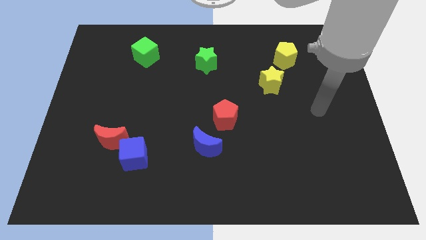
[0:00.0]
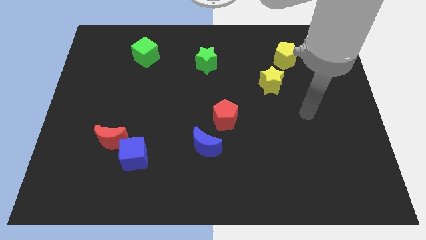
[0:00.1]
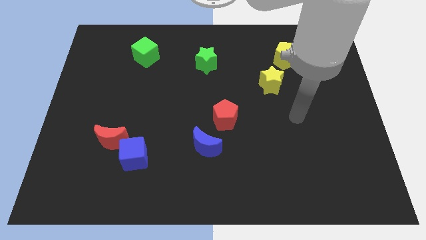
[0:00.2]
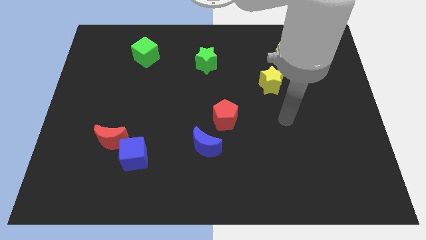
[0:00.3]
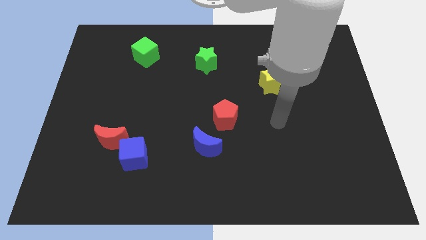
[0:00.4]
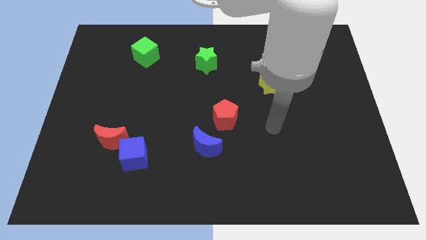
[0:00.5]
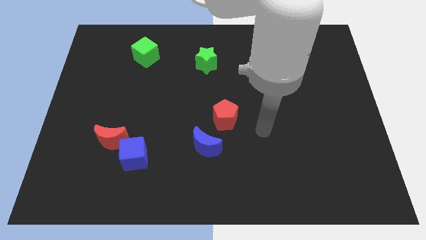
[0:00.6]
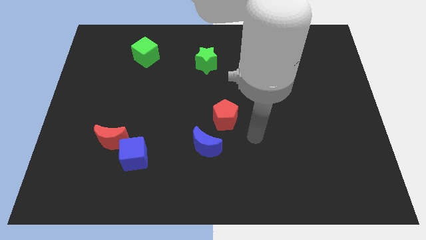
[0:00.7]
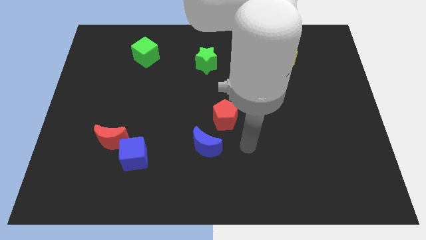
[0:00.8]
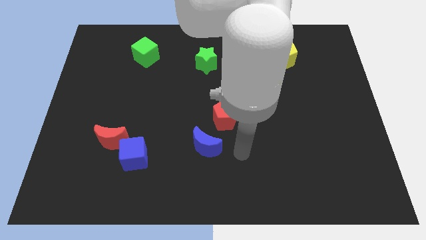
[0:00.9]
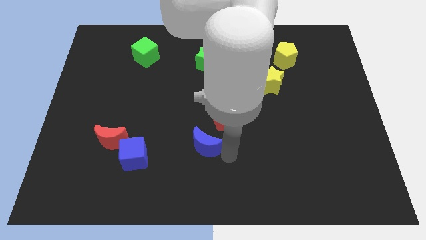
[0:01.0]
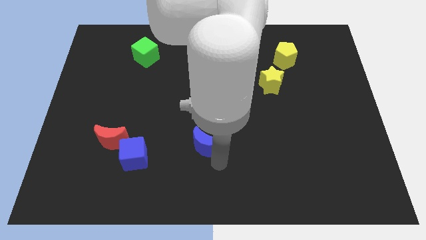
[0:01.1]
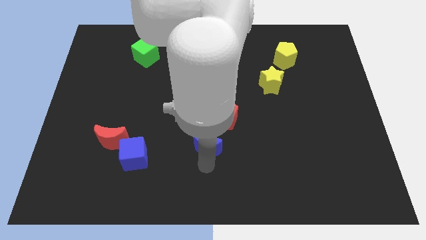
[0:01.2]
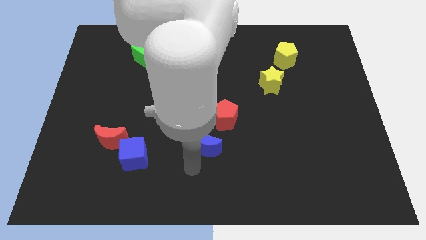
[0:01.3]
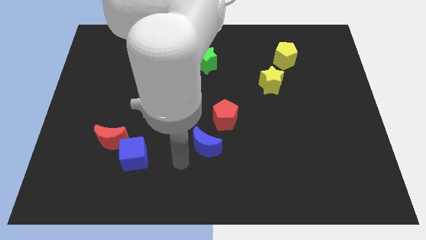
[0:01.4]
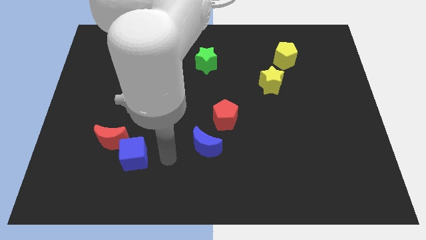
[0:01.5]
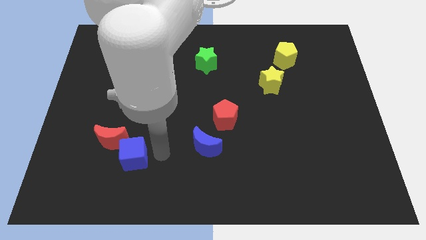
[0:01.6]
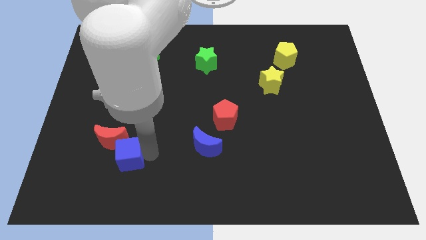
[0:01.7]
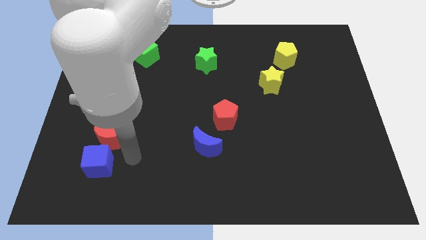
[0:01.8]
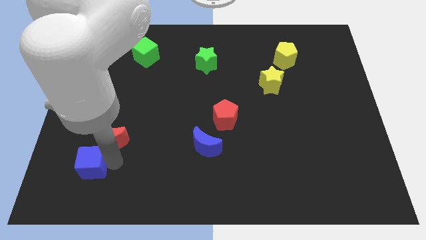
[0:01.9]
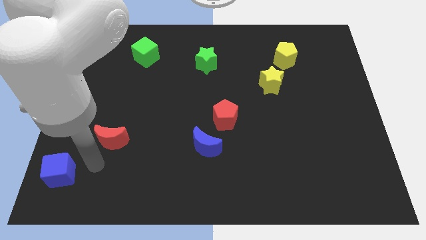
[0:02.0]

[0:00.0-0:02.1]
move the red moon away from the blue cube

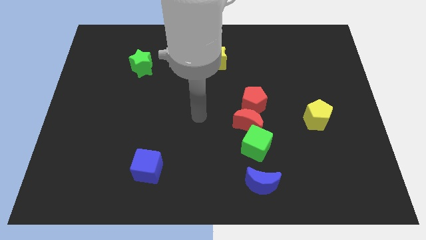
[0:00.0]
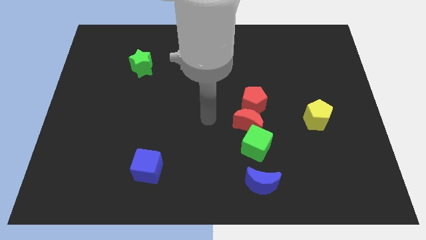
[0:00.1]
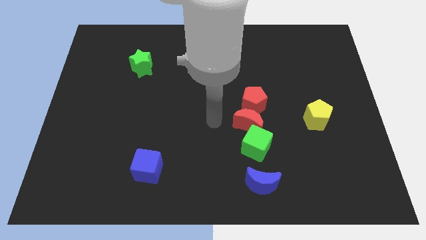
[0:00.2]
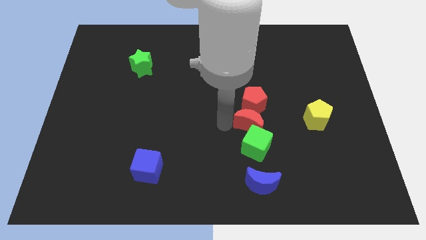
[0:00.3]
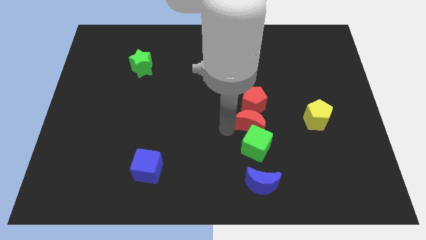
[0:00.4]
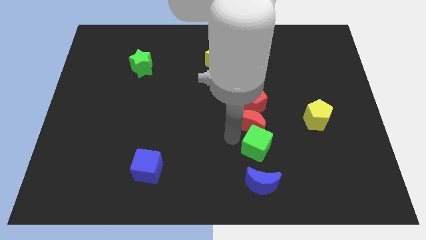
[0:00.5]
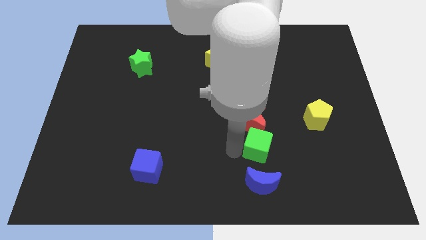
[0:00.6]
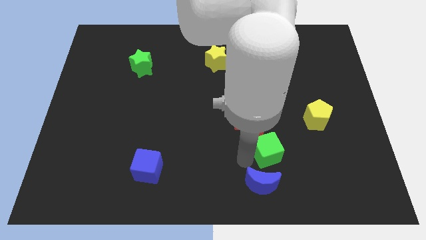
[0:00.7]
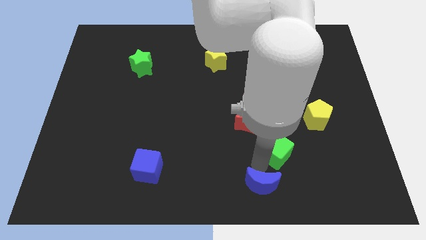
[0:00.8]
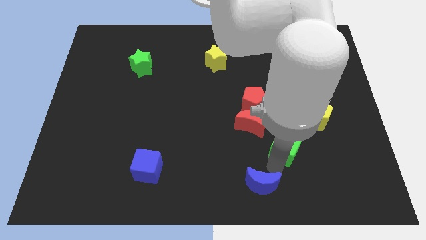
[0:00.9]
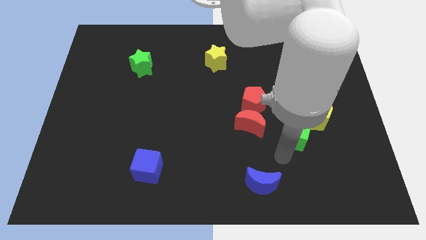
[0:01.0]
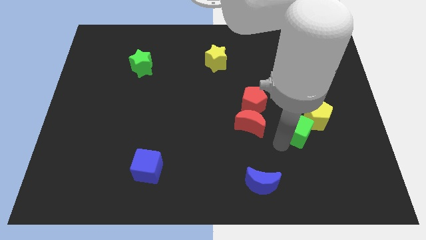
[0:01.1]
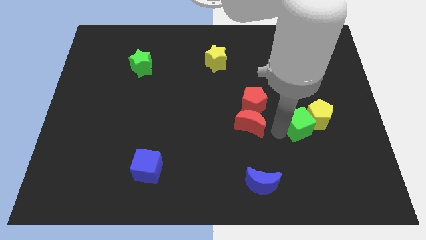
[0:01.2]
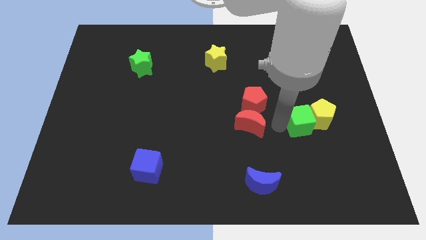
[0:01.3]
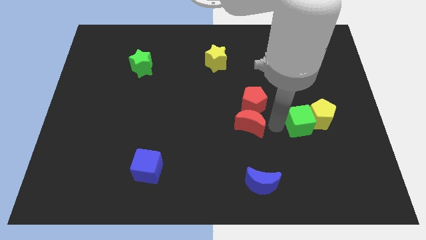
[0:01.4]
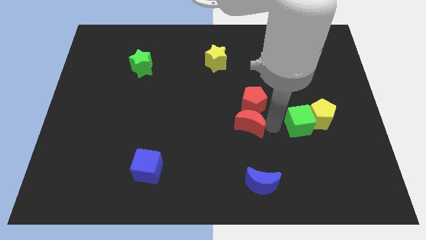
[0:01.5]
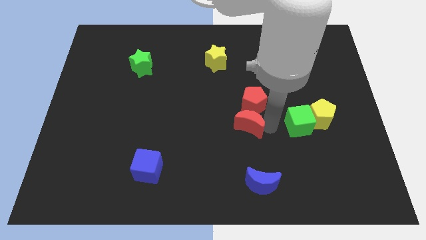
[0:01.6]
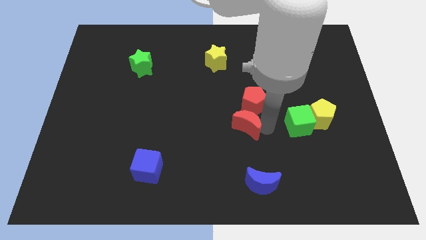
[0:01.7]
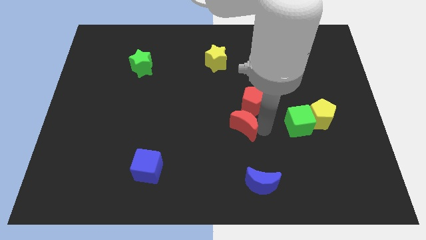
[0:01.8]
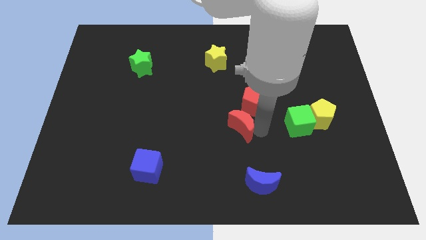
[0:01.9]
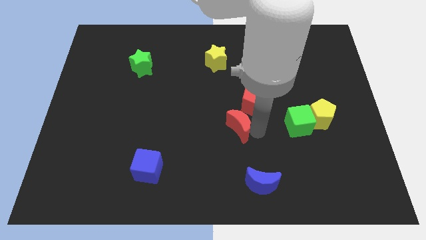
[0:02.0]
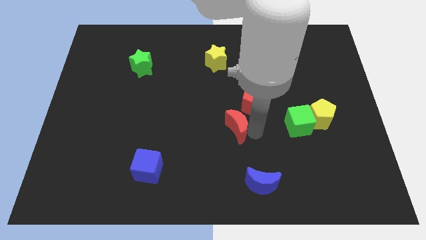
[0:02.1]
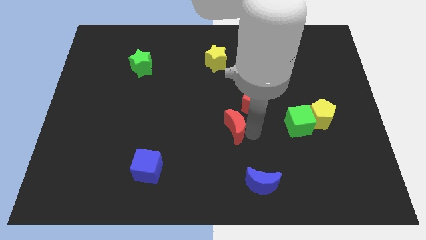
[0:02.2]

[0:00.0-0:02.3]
separate the red moon from the green cube and red pentagon

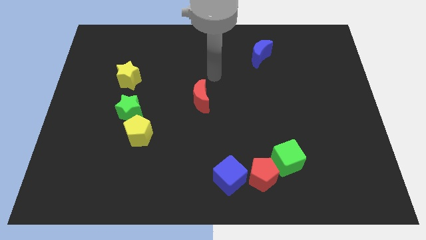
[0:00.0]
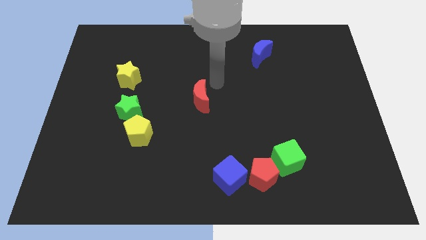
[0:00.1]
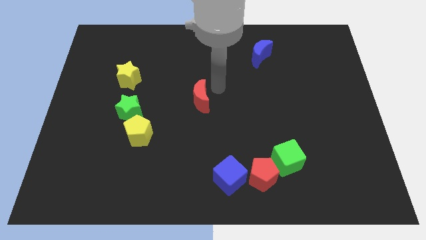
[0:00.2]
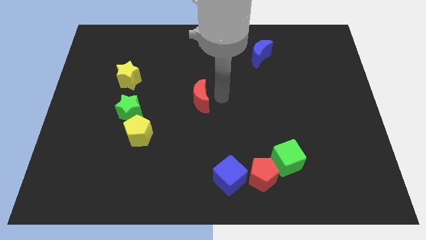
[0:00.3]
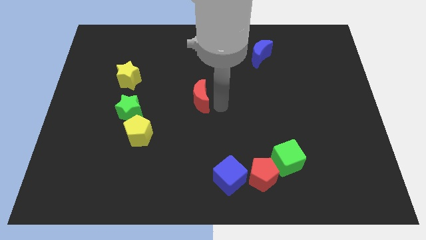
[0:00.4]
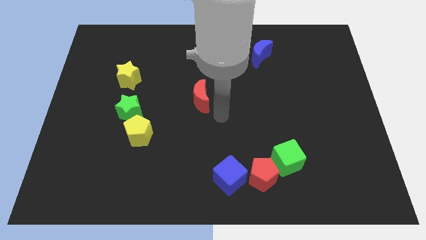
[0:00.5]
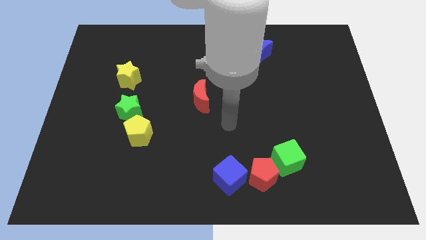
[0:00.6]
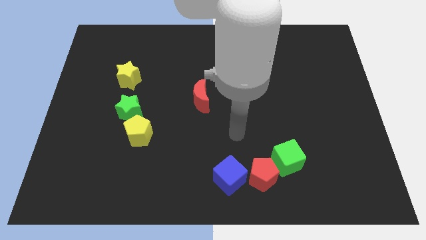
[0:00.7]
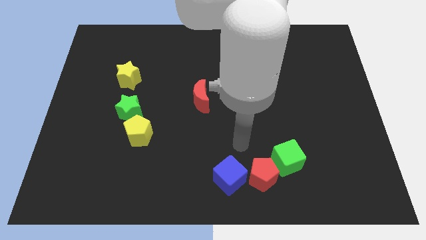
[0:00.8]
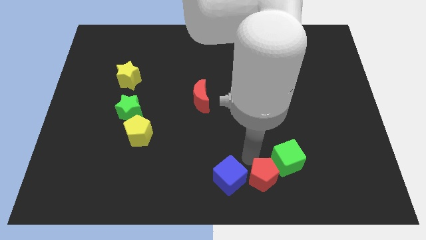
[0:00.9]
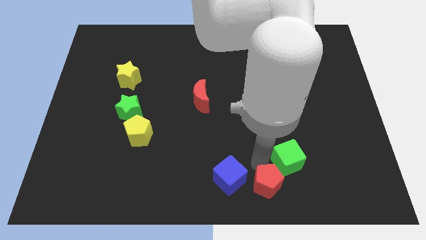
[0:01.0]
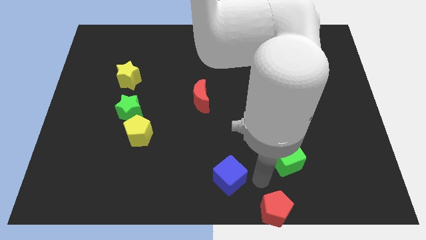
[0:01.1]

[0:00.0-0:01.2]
move the blue cube away from the red pentagon

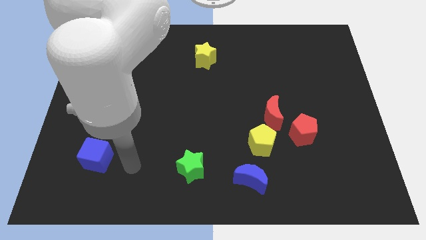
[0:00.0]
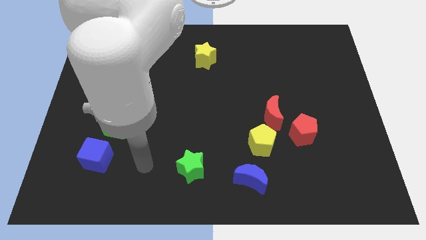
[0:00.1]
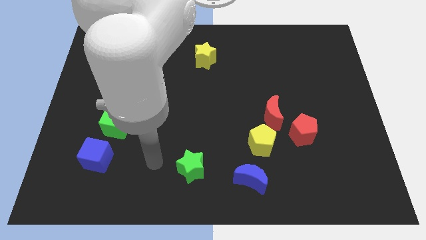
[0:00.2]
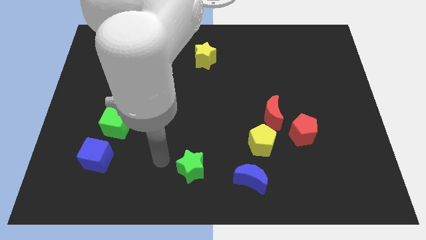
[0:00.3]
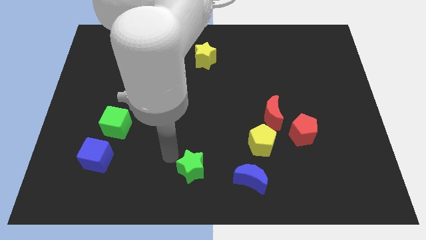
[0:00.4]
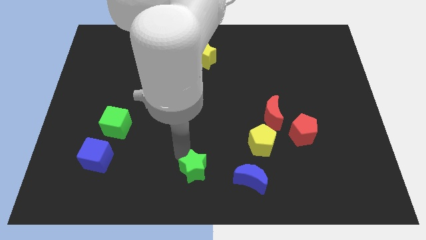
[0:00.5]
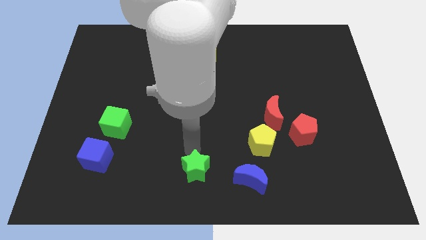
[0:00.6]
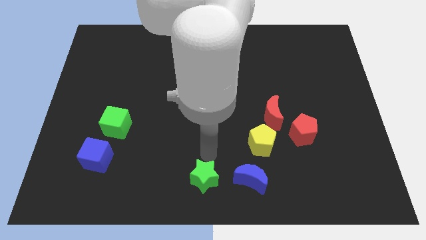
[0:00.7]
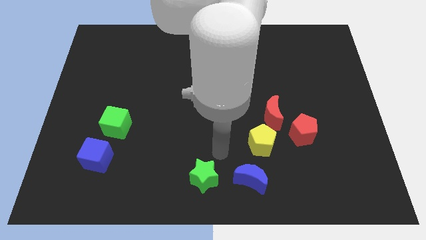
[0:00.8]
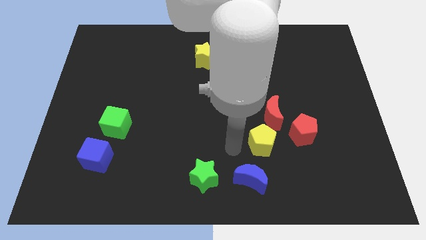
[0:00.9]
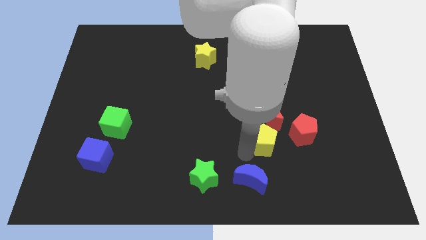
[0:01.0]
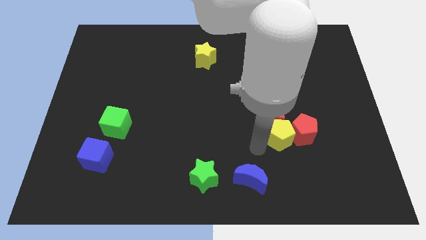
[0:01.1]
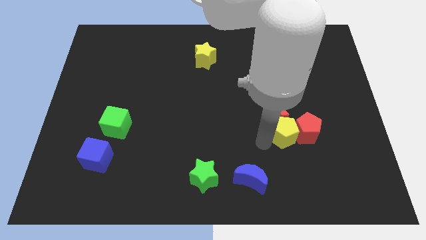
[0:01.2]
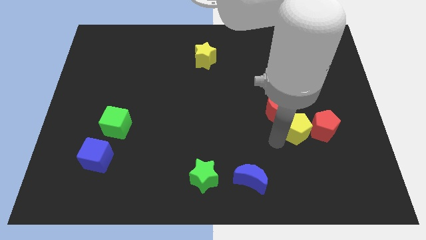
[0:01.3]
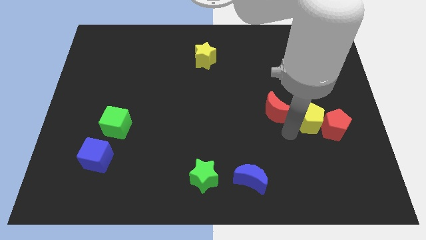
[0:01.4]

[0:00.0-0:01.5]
separate the red moon from the yellow pentagon and red pentagon

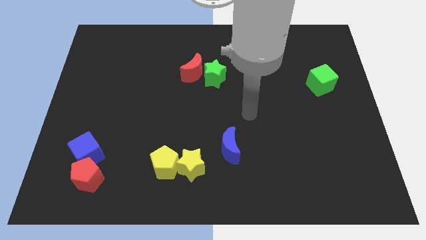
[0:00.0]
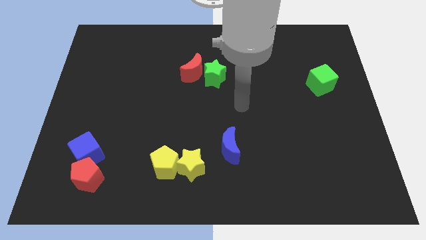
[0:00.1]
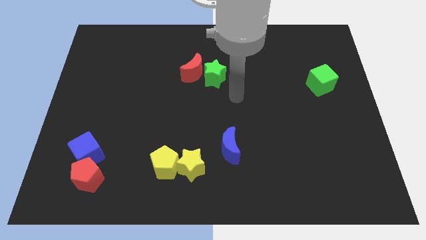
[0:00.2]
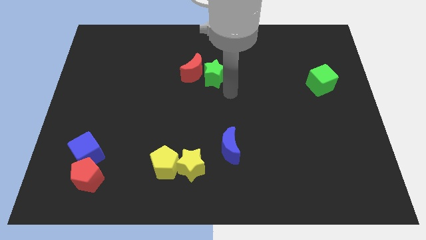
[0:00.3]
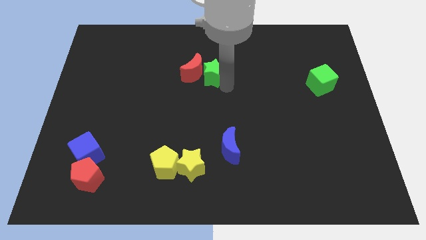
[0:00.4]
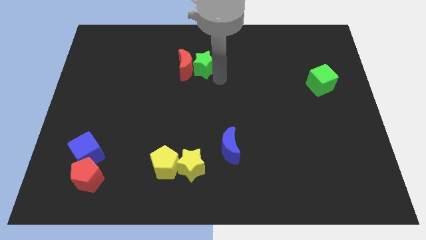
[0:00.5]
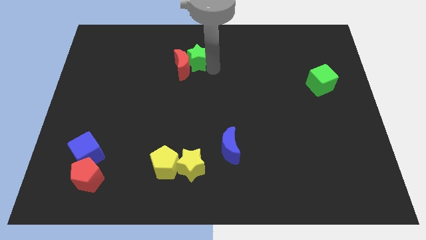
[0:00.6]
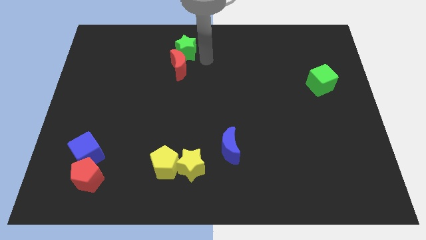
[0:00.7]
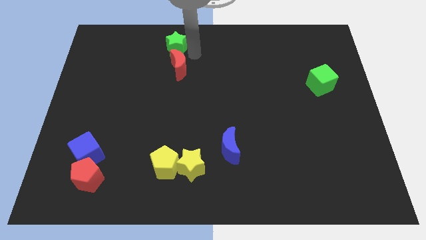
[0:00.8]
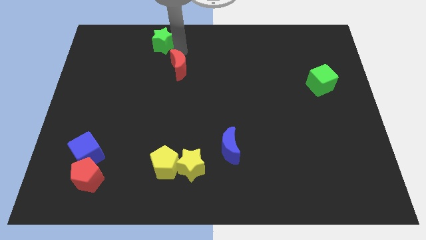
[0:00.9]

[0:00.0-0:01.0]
separate the red moon from the green star

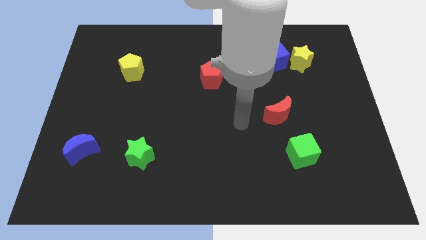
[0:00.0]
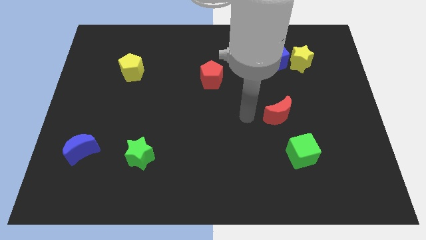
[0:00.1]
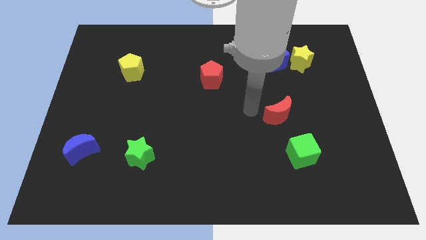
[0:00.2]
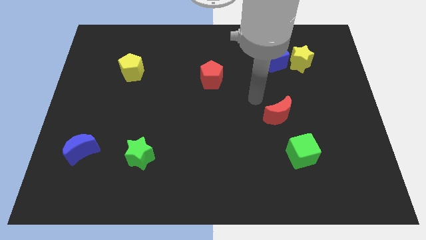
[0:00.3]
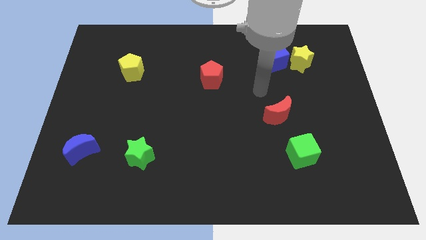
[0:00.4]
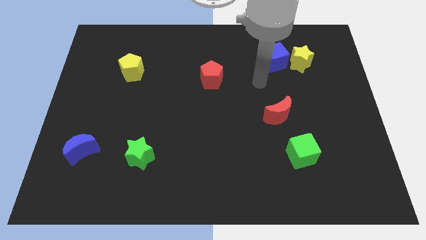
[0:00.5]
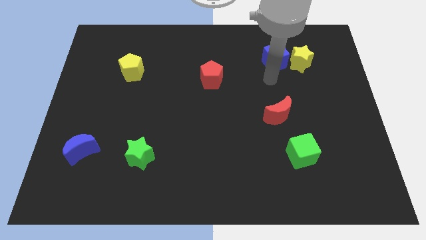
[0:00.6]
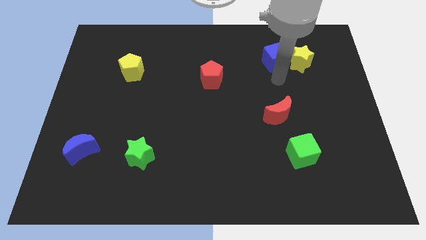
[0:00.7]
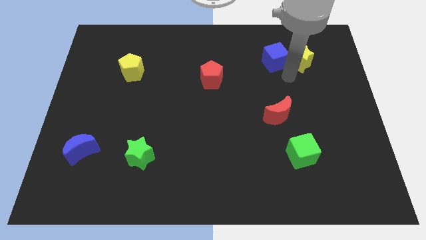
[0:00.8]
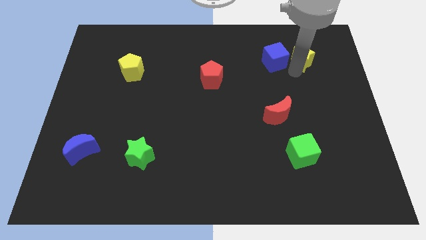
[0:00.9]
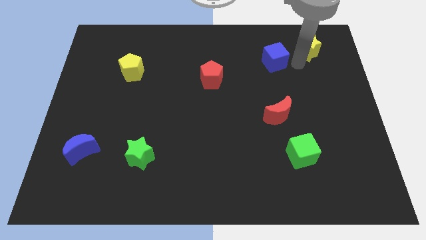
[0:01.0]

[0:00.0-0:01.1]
pull the blue cube apart from the yellow star

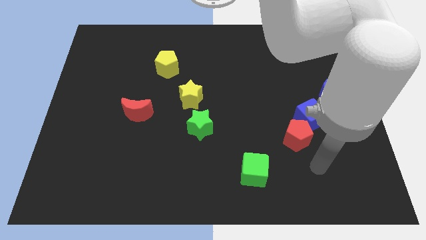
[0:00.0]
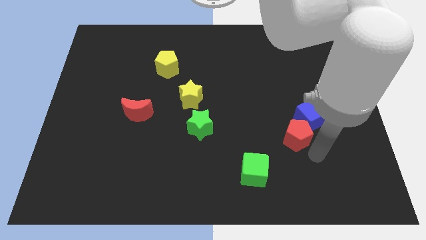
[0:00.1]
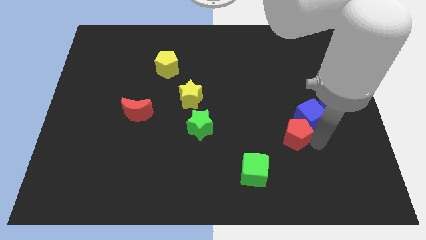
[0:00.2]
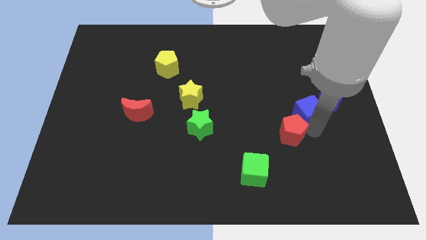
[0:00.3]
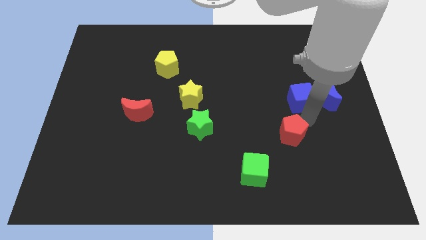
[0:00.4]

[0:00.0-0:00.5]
pull the red pentagon apart from the blue cube
